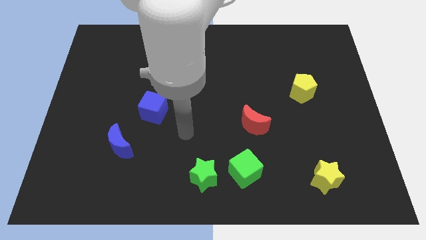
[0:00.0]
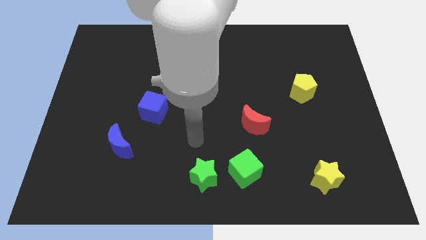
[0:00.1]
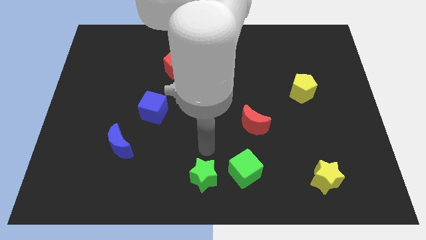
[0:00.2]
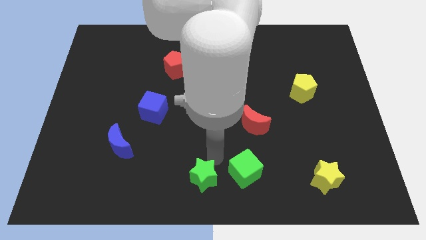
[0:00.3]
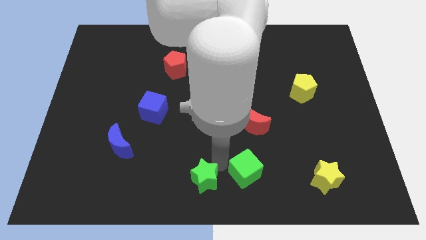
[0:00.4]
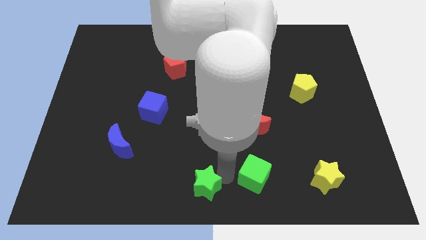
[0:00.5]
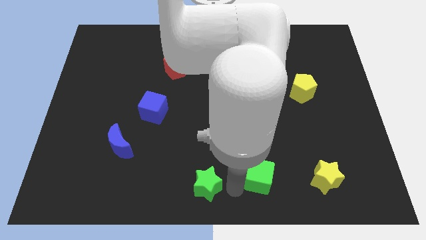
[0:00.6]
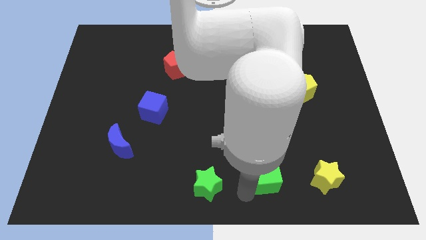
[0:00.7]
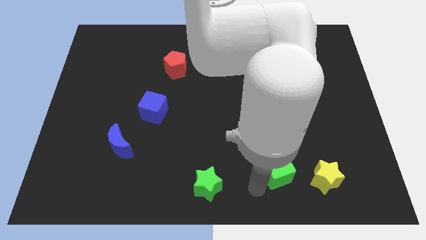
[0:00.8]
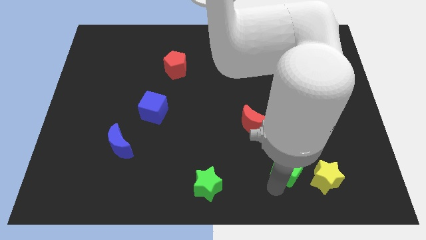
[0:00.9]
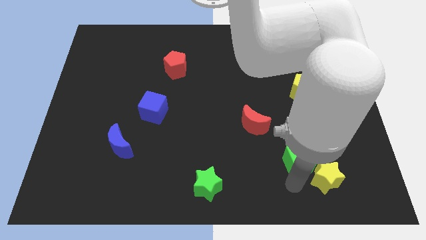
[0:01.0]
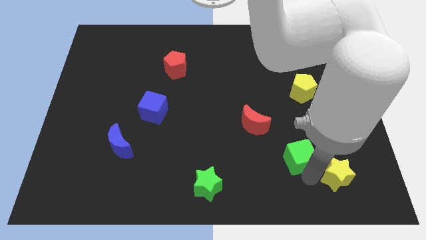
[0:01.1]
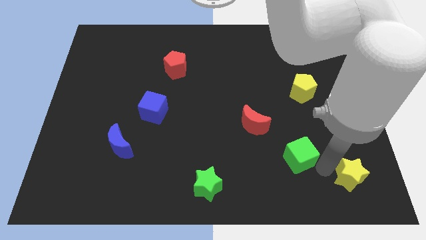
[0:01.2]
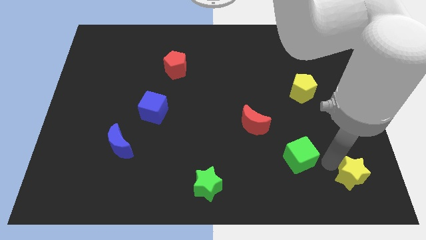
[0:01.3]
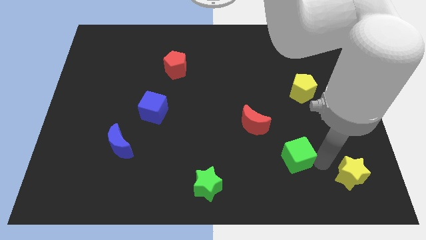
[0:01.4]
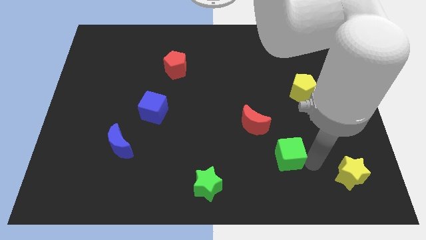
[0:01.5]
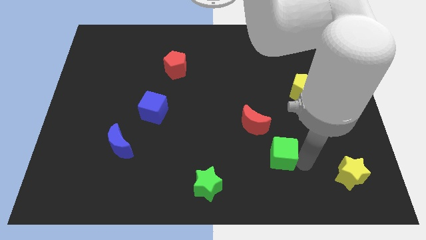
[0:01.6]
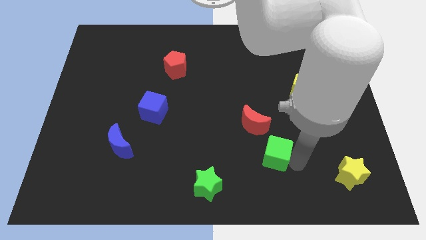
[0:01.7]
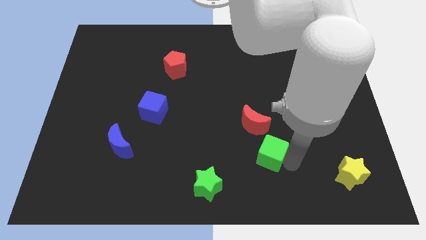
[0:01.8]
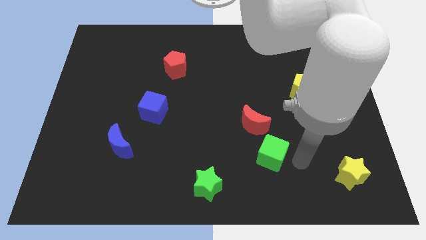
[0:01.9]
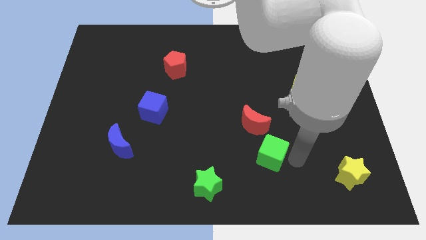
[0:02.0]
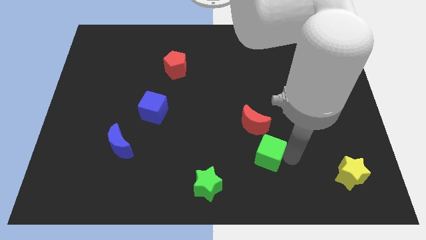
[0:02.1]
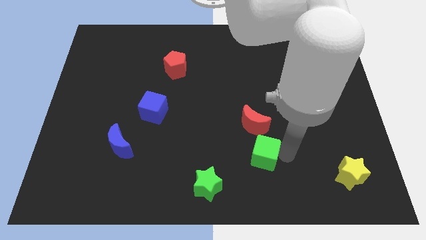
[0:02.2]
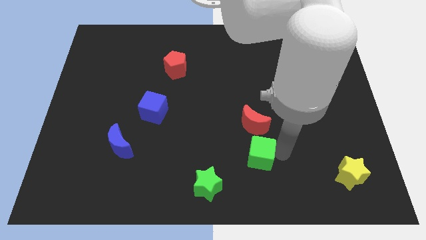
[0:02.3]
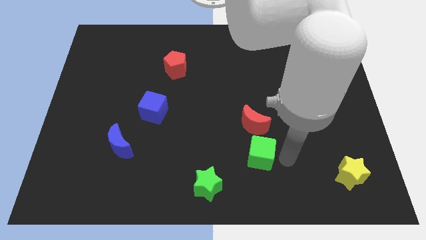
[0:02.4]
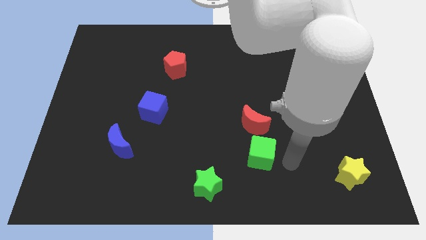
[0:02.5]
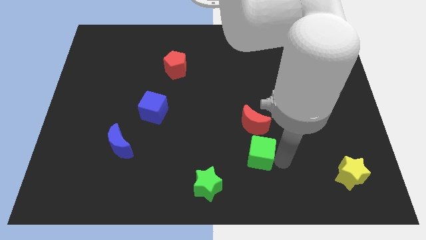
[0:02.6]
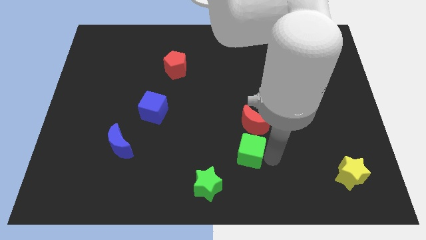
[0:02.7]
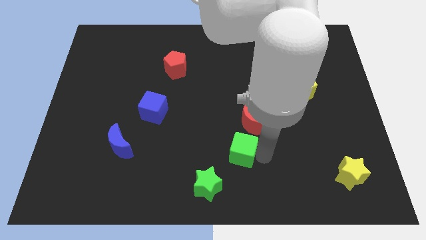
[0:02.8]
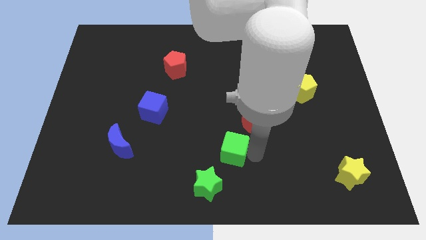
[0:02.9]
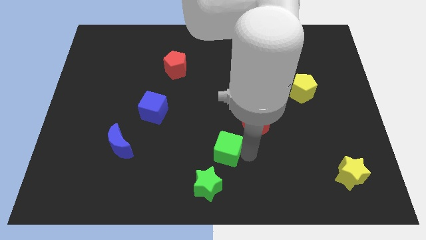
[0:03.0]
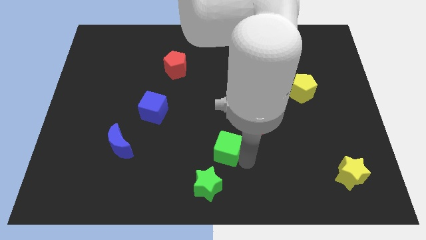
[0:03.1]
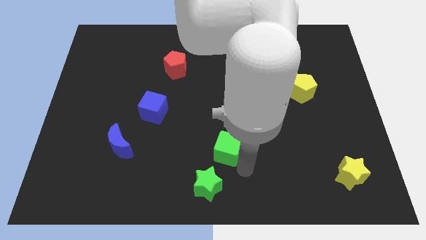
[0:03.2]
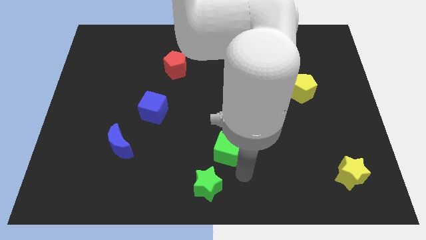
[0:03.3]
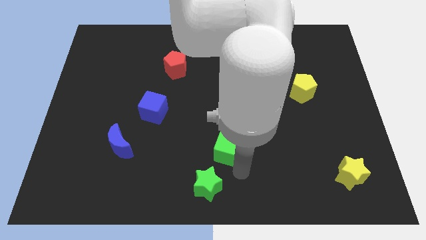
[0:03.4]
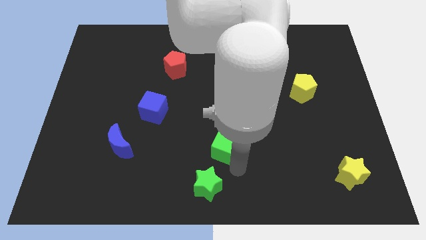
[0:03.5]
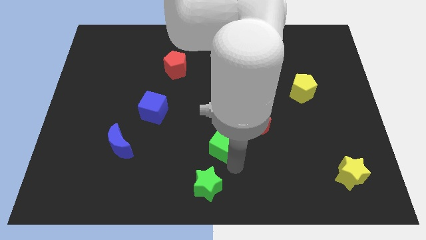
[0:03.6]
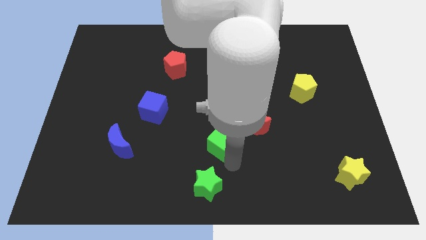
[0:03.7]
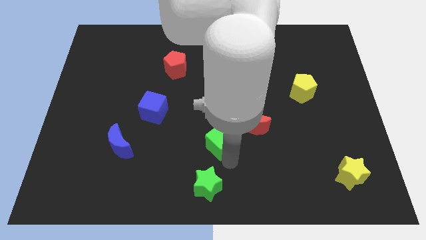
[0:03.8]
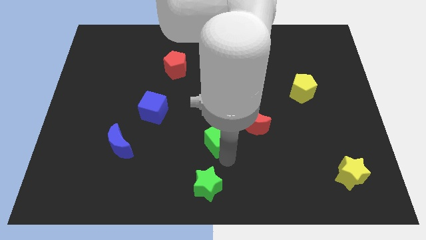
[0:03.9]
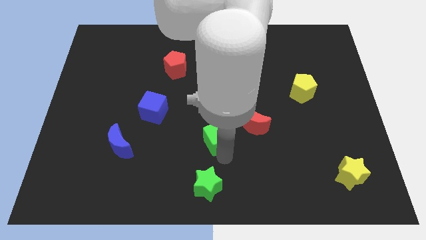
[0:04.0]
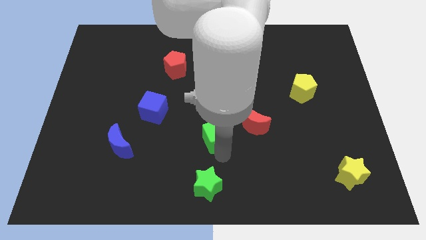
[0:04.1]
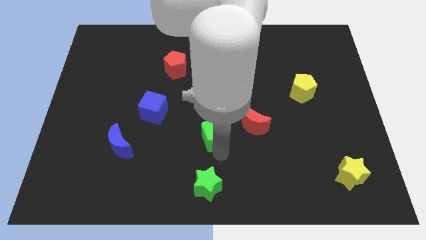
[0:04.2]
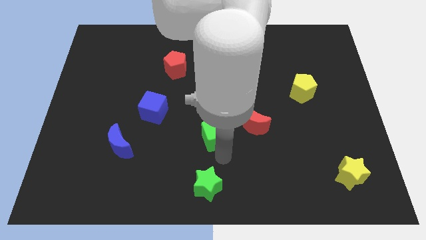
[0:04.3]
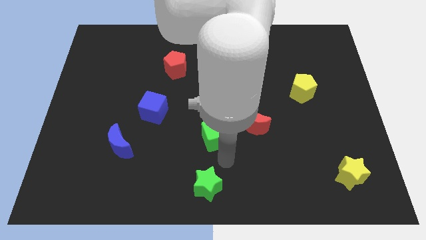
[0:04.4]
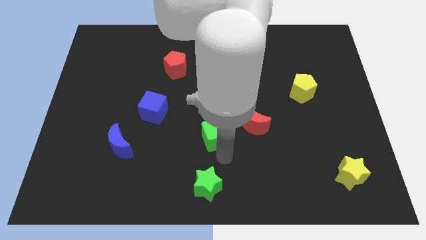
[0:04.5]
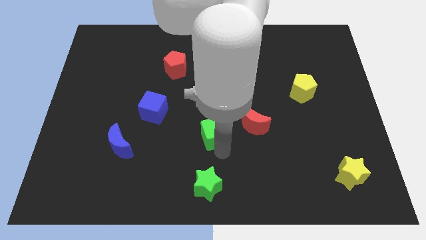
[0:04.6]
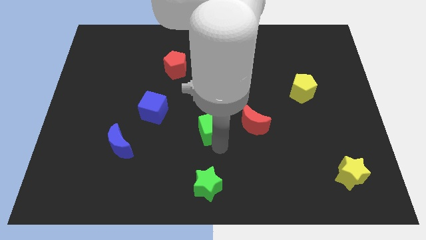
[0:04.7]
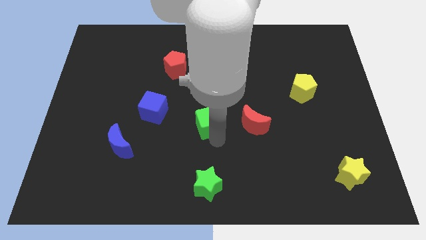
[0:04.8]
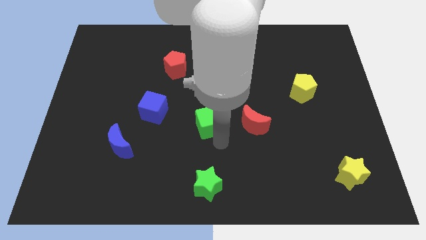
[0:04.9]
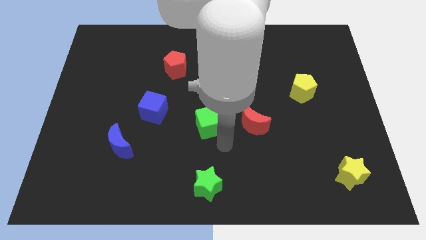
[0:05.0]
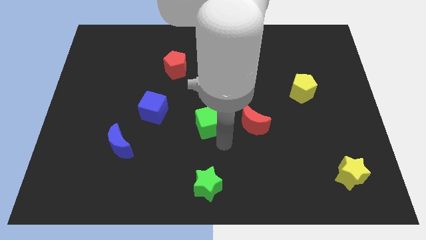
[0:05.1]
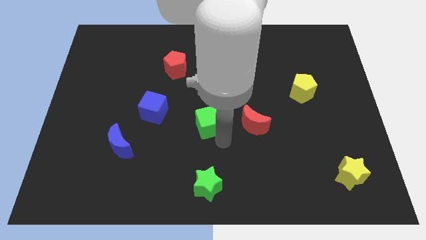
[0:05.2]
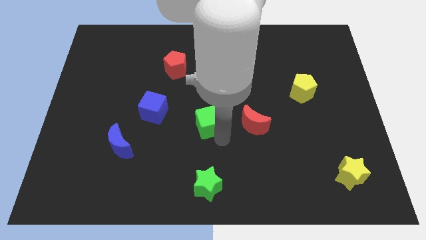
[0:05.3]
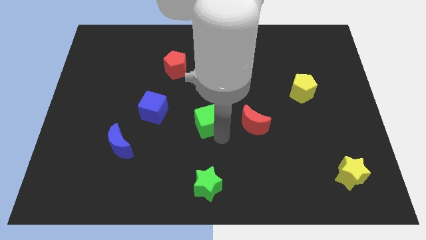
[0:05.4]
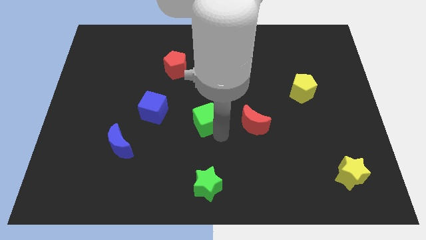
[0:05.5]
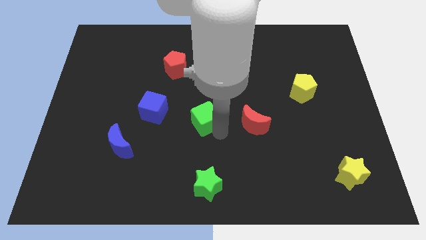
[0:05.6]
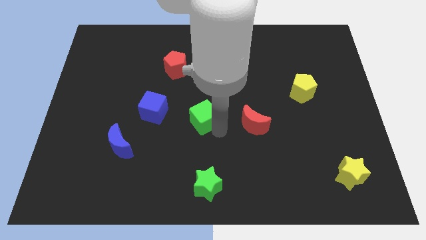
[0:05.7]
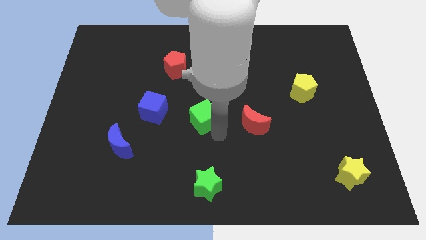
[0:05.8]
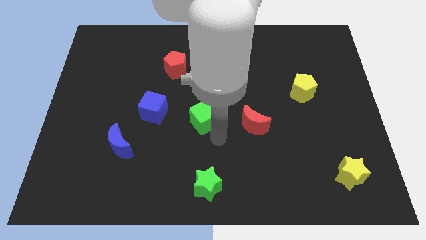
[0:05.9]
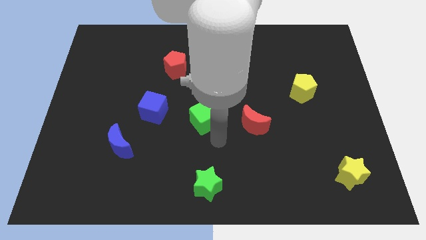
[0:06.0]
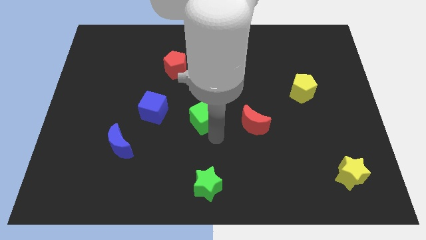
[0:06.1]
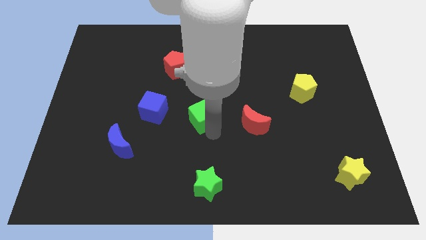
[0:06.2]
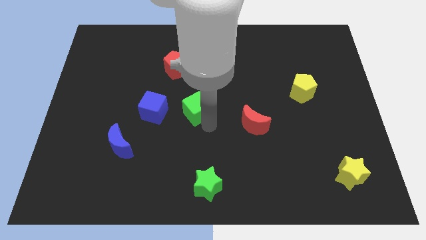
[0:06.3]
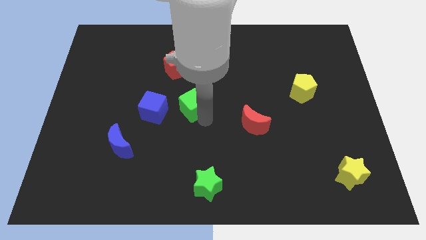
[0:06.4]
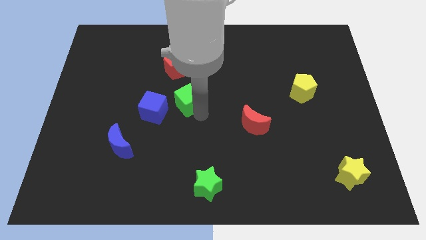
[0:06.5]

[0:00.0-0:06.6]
push the green cube to the top right of the blue cube

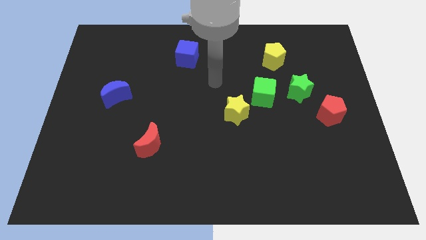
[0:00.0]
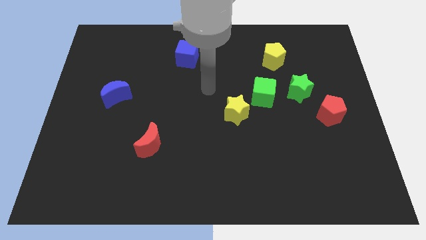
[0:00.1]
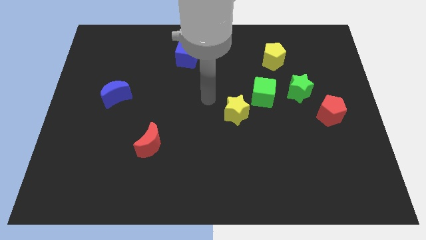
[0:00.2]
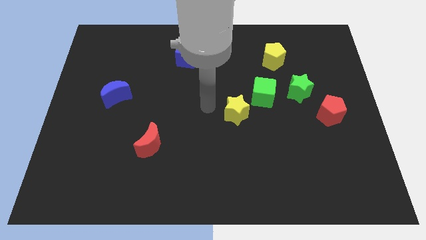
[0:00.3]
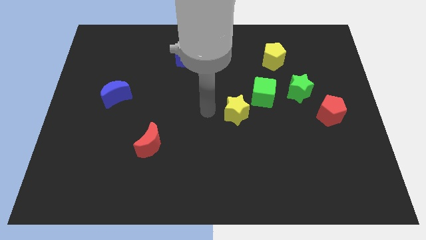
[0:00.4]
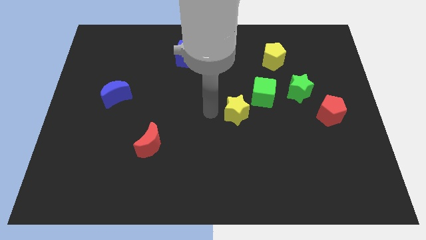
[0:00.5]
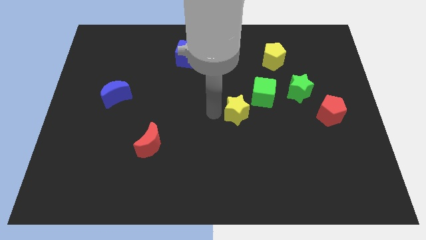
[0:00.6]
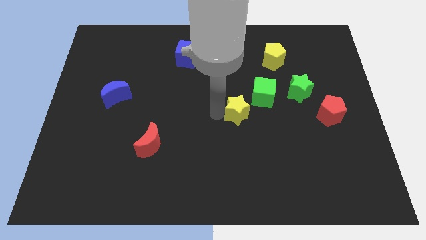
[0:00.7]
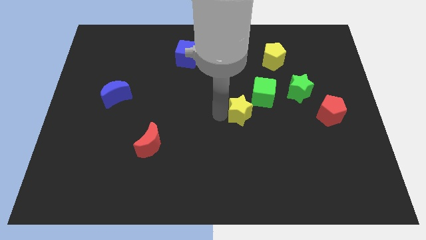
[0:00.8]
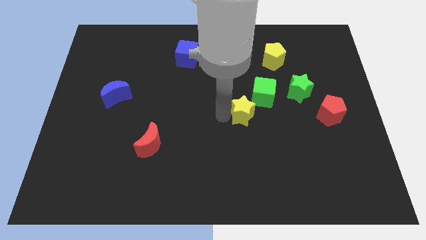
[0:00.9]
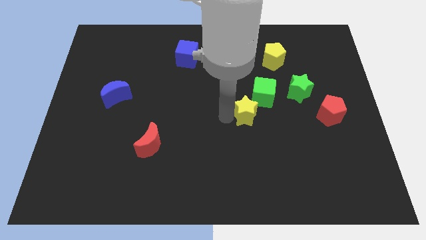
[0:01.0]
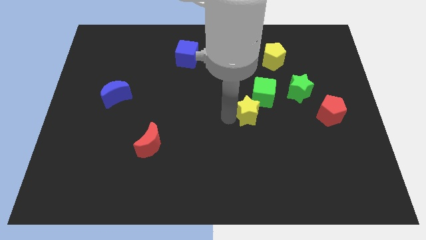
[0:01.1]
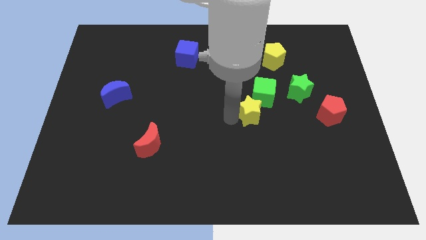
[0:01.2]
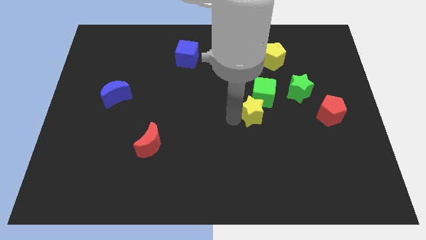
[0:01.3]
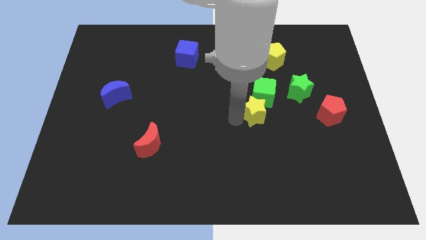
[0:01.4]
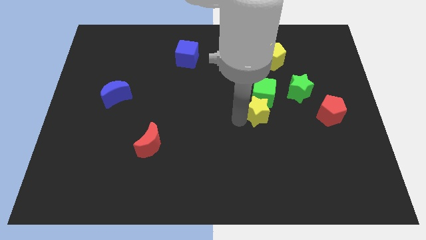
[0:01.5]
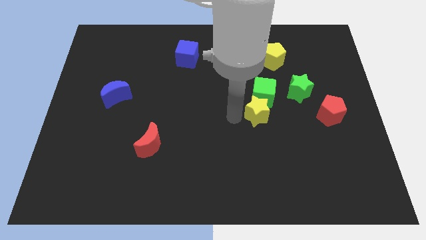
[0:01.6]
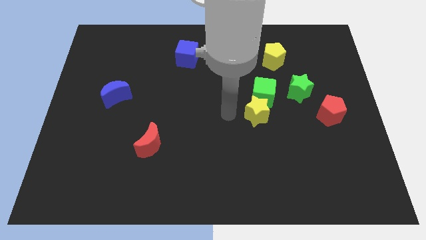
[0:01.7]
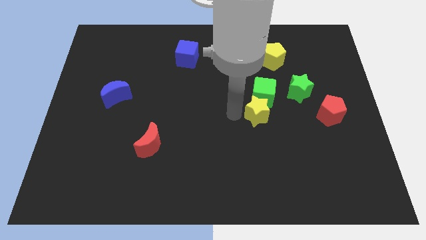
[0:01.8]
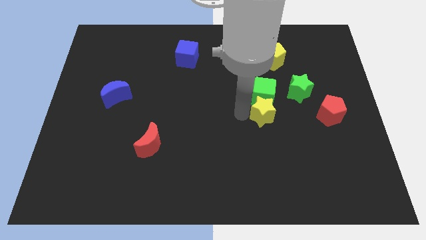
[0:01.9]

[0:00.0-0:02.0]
push the yellow star just left of the red pentagon
